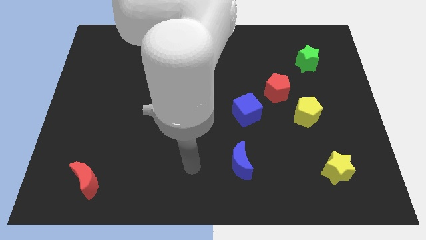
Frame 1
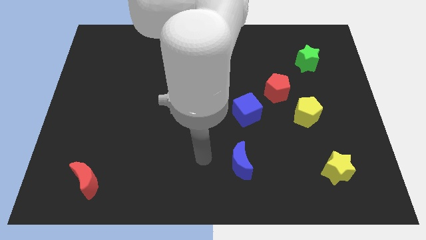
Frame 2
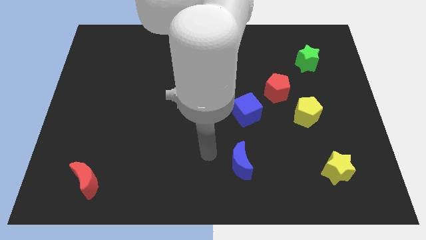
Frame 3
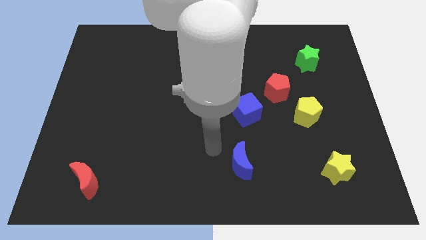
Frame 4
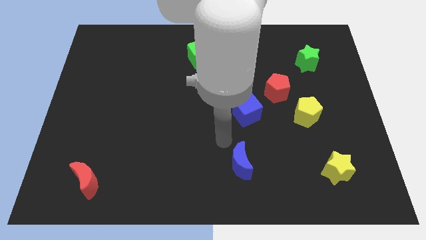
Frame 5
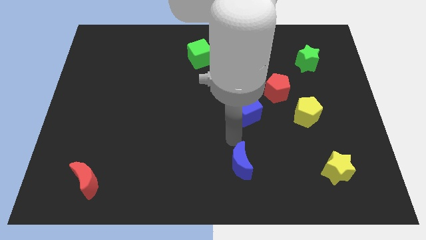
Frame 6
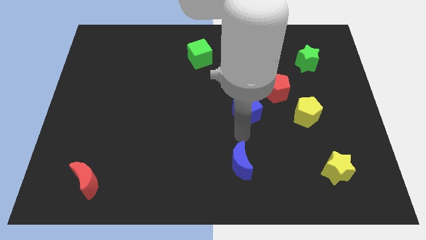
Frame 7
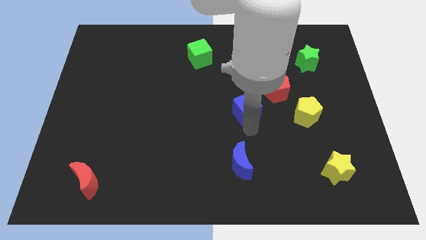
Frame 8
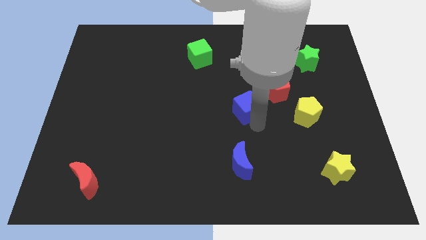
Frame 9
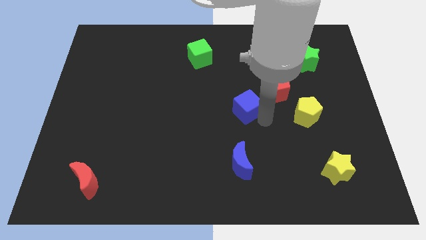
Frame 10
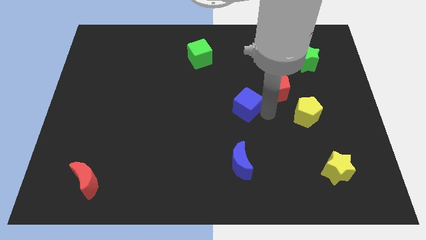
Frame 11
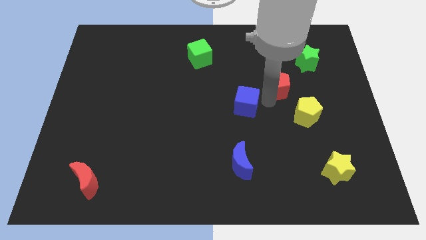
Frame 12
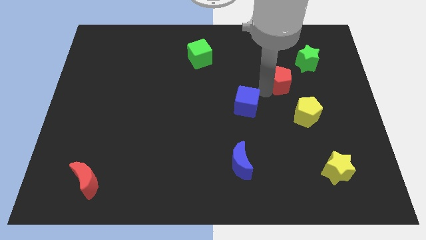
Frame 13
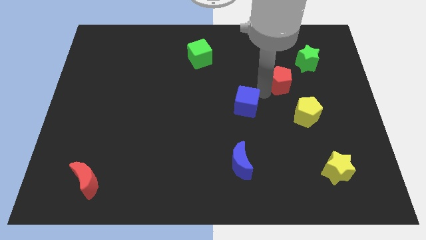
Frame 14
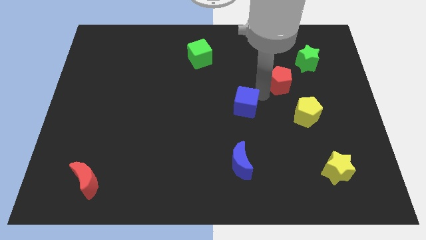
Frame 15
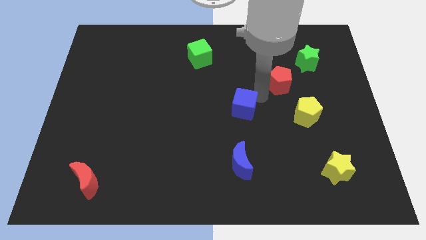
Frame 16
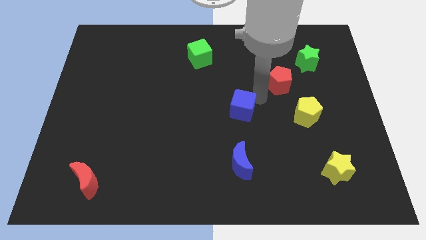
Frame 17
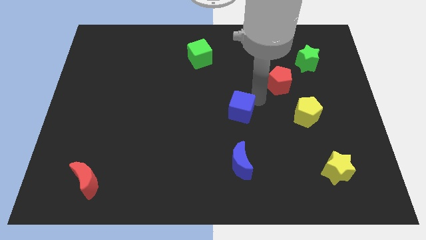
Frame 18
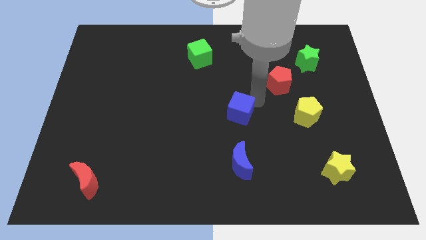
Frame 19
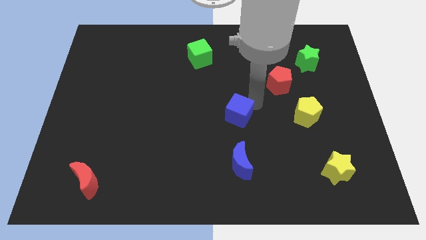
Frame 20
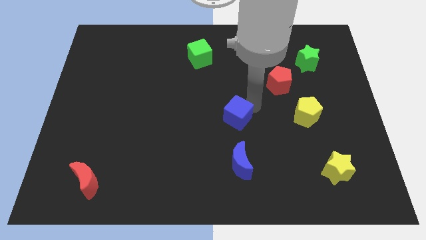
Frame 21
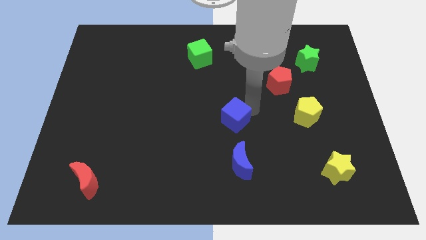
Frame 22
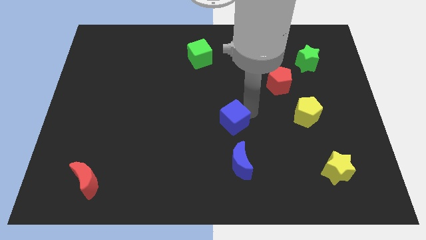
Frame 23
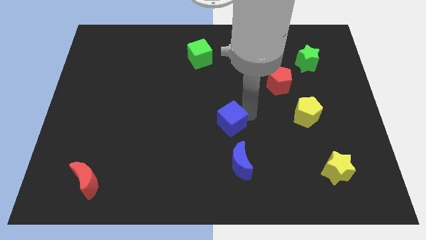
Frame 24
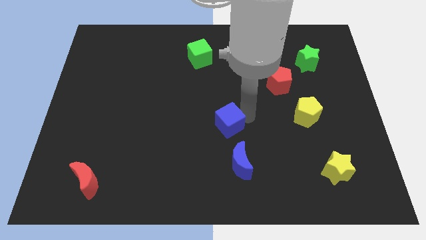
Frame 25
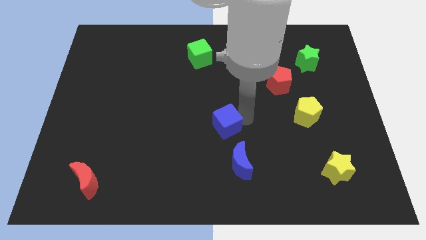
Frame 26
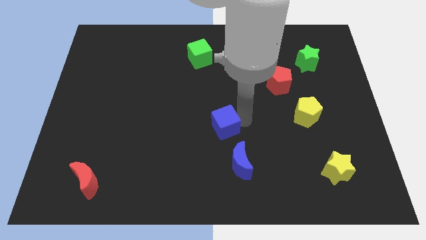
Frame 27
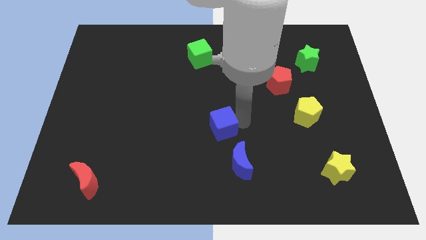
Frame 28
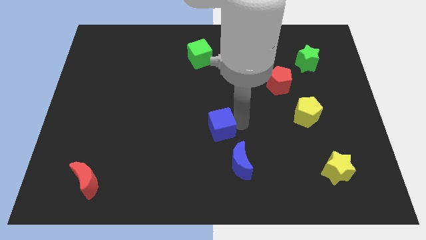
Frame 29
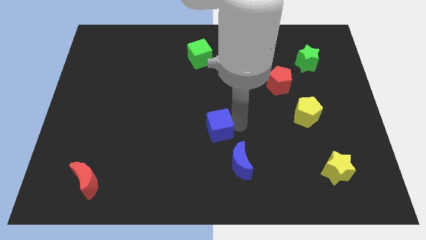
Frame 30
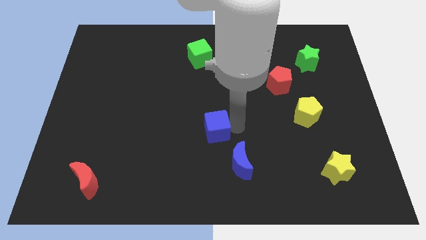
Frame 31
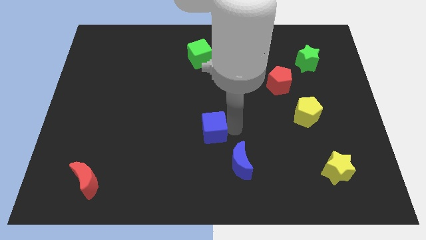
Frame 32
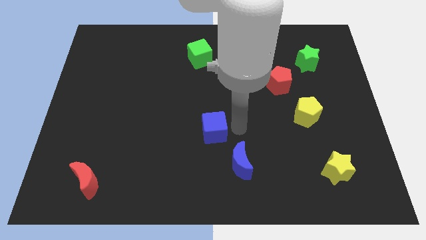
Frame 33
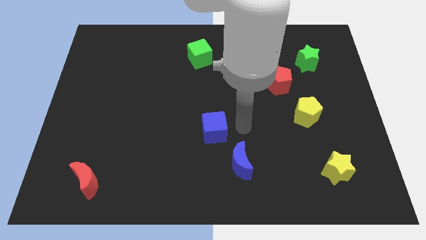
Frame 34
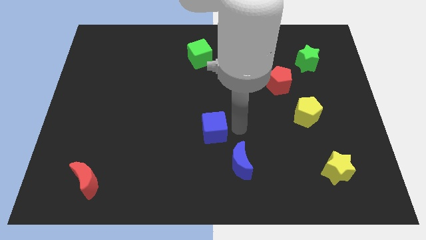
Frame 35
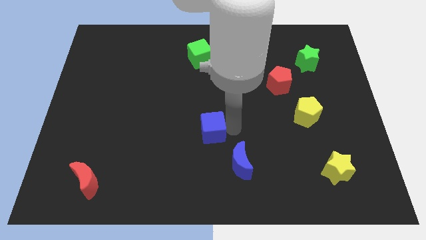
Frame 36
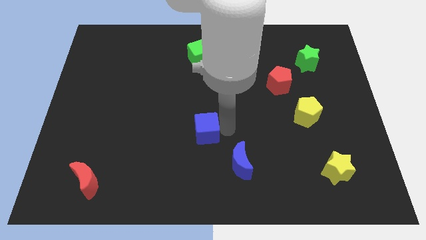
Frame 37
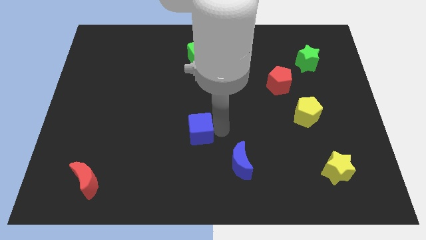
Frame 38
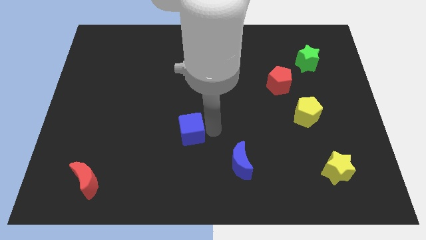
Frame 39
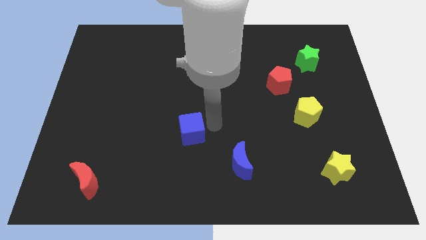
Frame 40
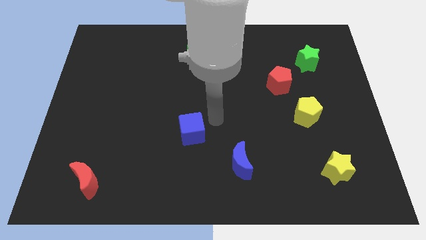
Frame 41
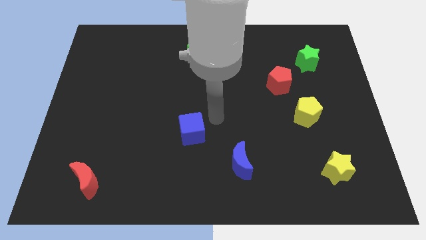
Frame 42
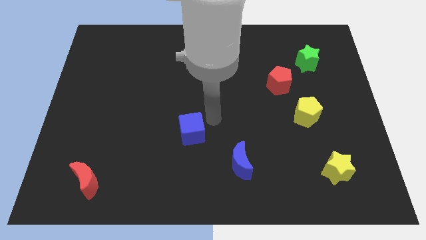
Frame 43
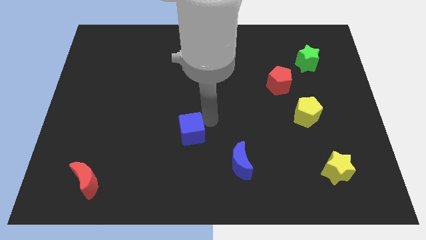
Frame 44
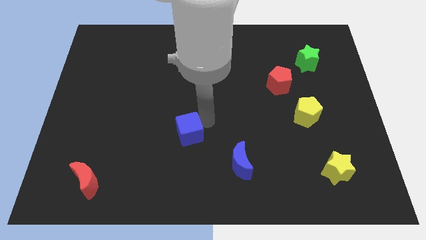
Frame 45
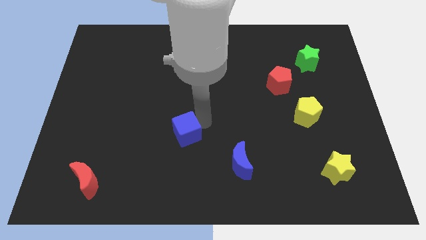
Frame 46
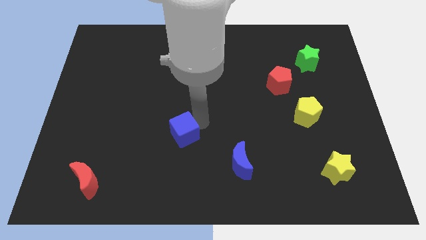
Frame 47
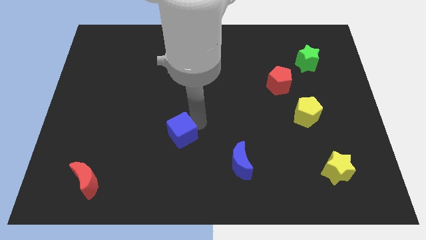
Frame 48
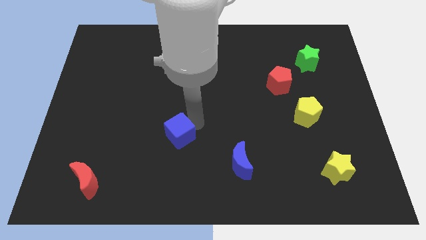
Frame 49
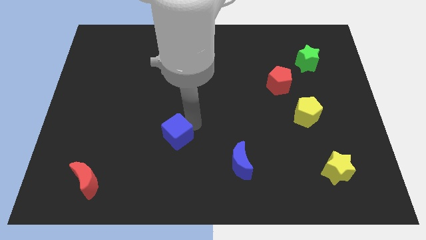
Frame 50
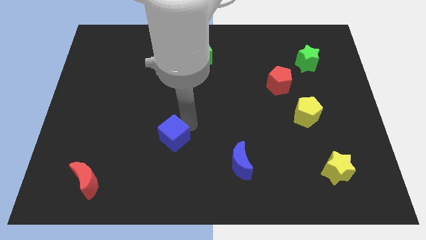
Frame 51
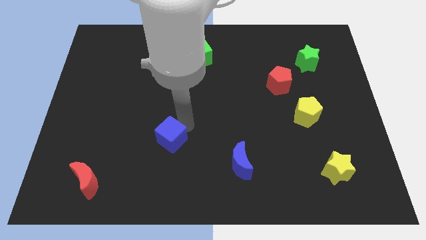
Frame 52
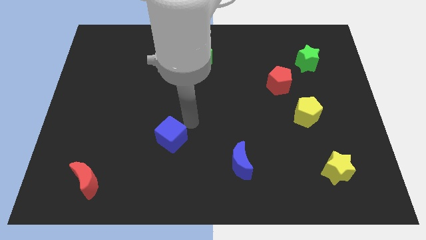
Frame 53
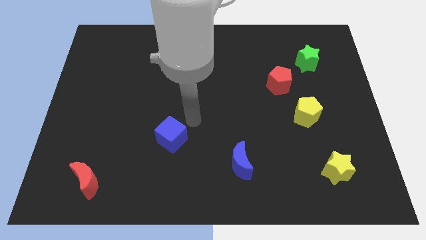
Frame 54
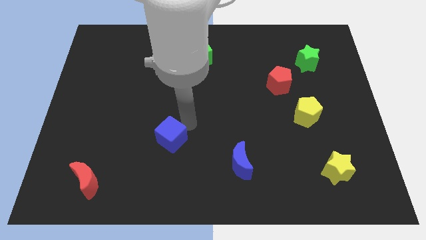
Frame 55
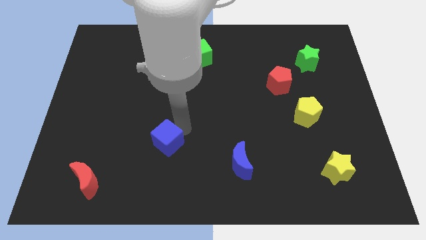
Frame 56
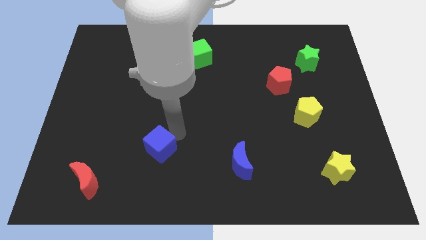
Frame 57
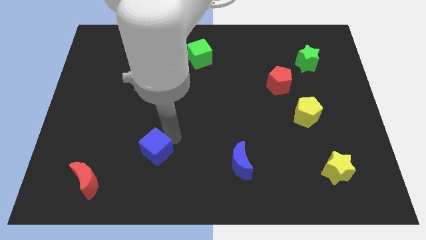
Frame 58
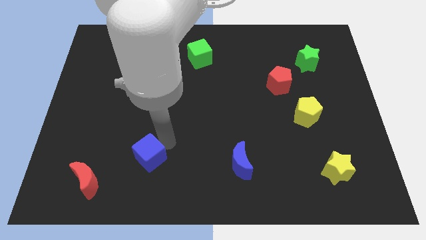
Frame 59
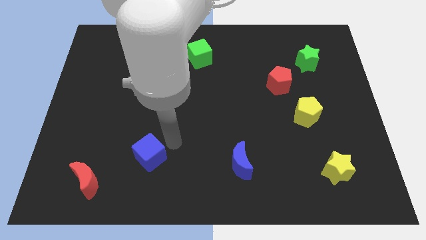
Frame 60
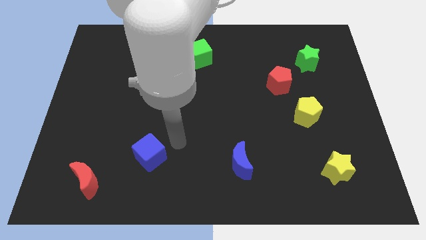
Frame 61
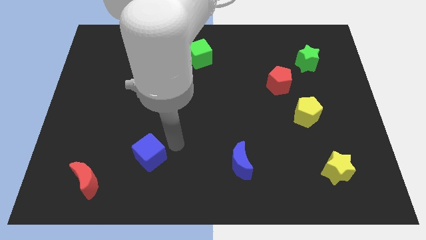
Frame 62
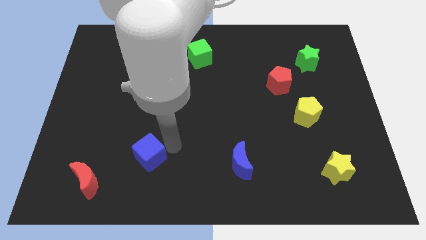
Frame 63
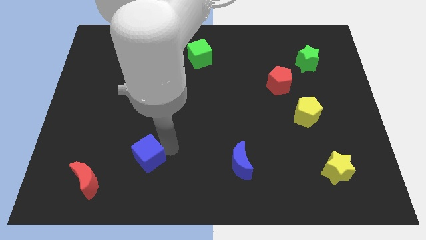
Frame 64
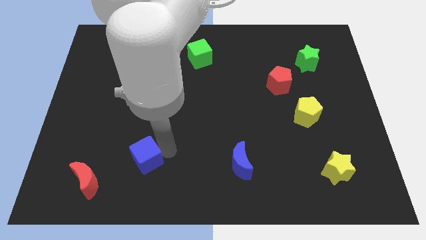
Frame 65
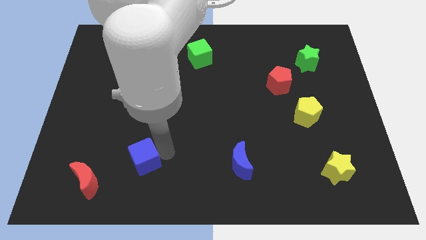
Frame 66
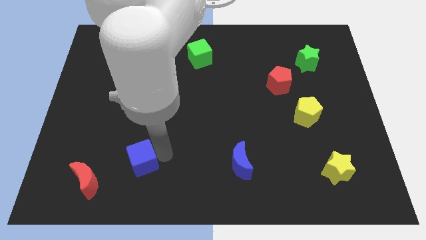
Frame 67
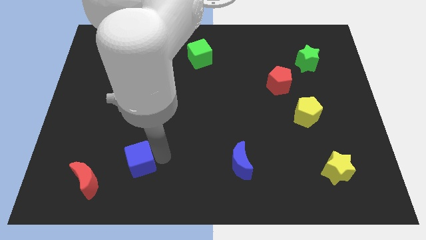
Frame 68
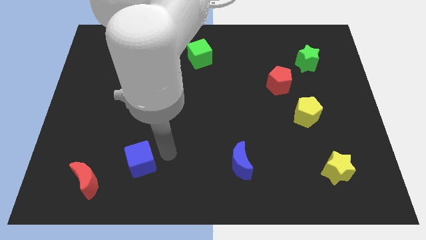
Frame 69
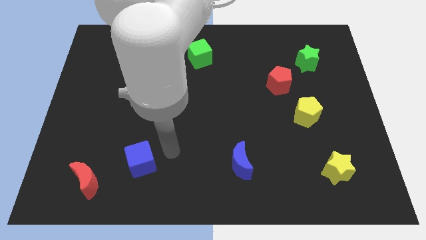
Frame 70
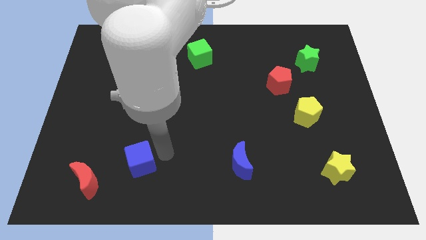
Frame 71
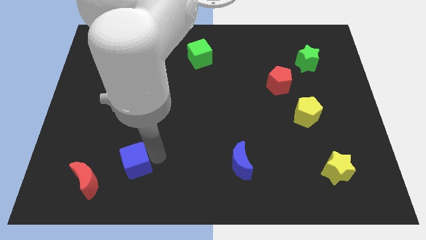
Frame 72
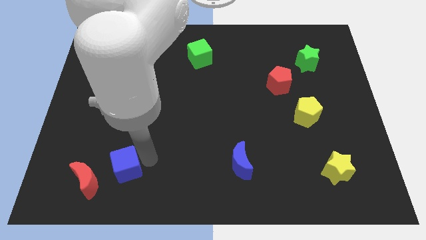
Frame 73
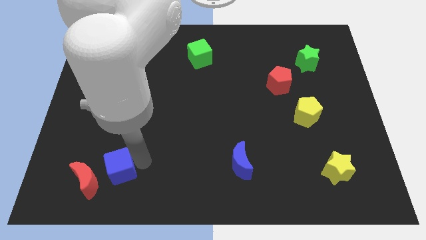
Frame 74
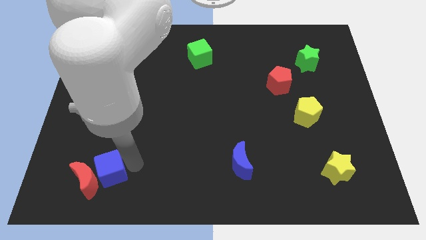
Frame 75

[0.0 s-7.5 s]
move the blue cube to the red moon
